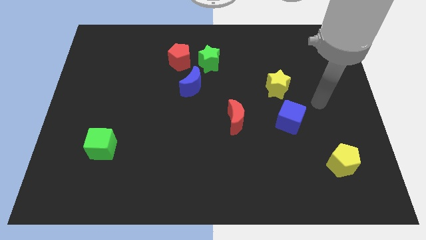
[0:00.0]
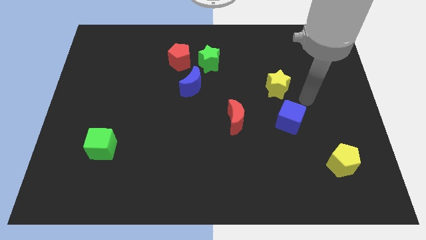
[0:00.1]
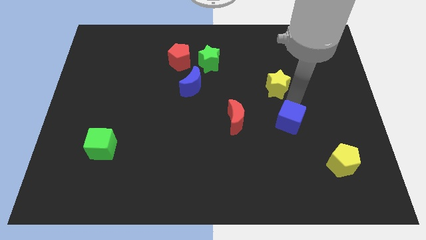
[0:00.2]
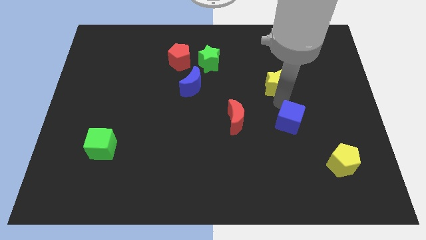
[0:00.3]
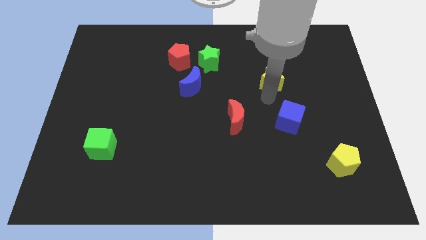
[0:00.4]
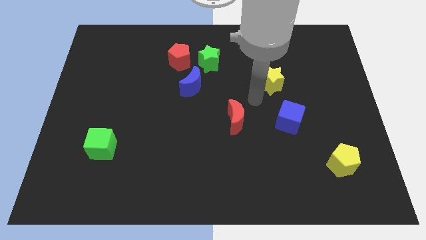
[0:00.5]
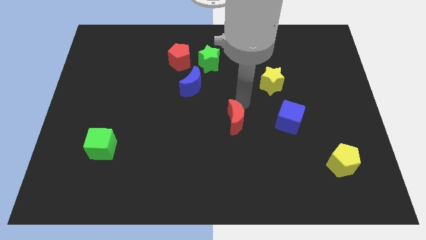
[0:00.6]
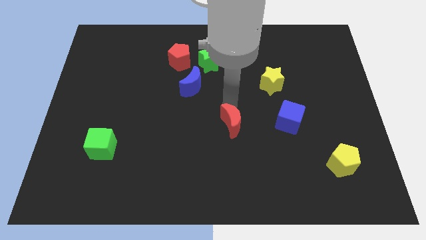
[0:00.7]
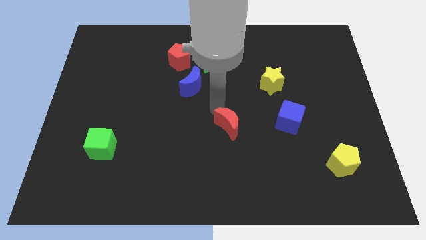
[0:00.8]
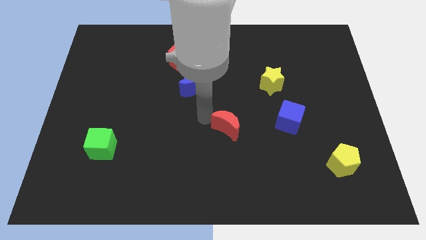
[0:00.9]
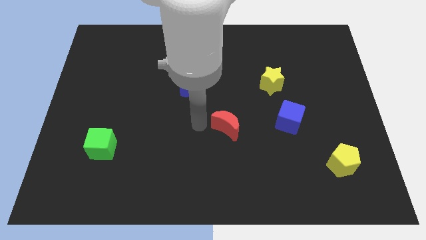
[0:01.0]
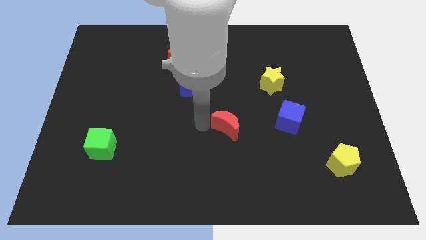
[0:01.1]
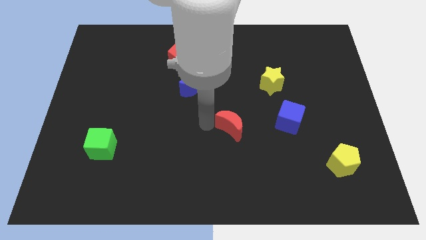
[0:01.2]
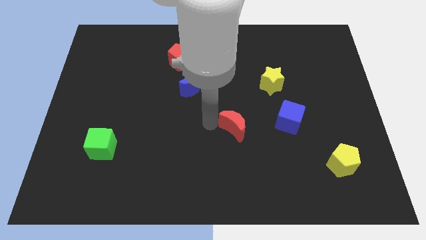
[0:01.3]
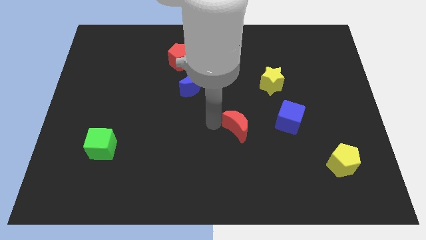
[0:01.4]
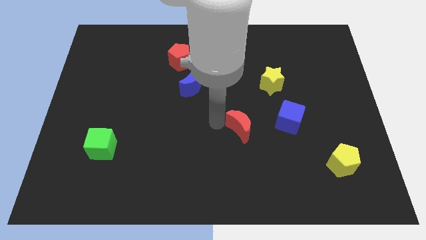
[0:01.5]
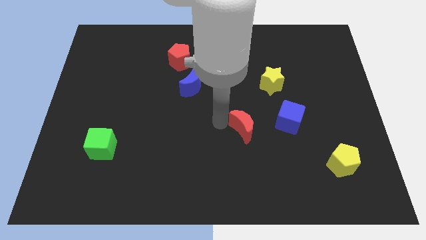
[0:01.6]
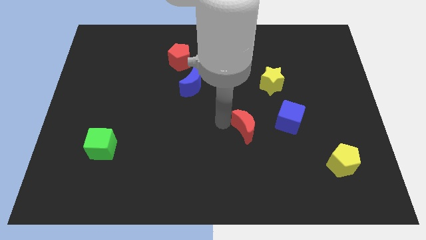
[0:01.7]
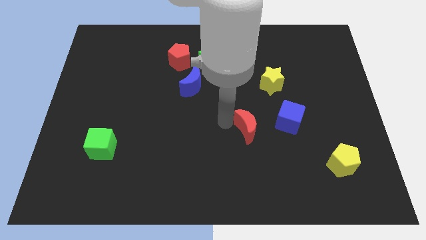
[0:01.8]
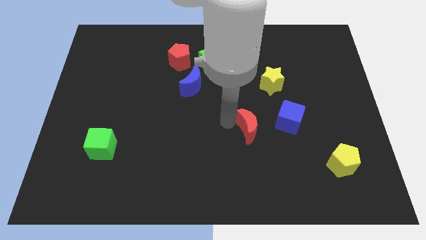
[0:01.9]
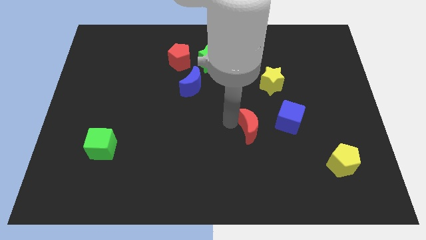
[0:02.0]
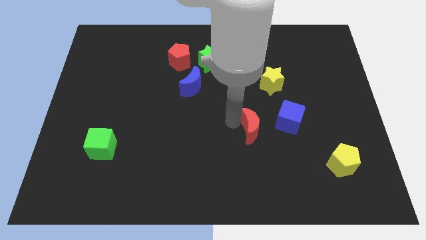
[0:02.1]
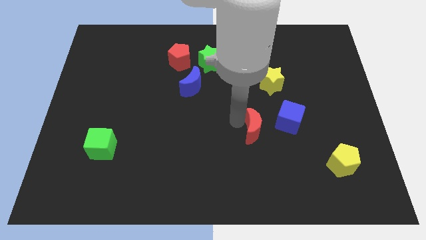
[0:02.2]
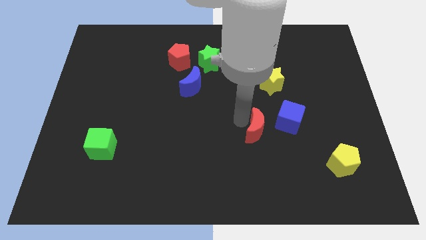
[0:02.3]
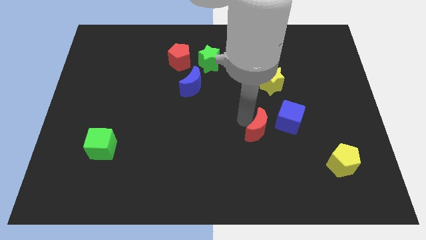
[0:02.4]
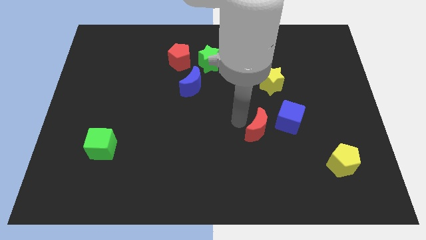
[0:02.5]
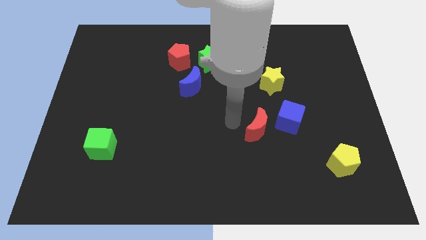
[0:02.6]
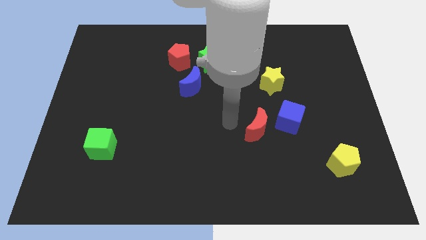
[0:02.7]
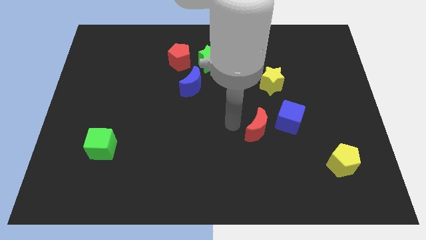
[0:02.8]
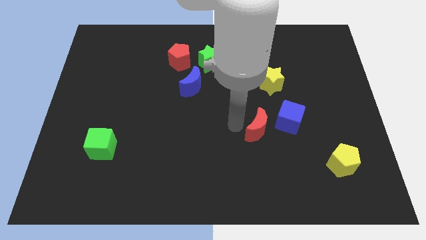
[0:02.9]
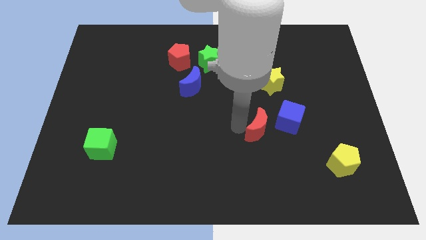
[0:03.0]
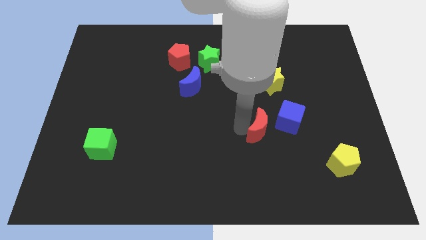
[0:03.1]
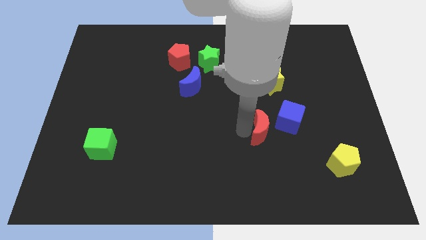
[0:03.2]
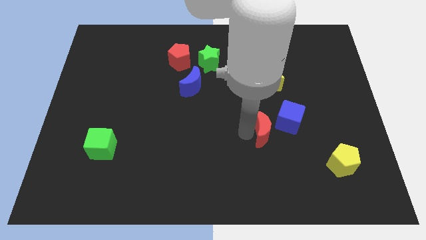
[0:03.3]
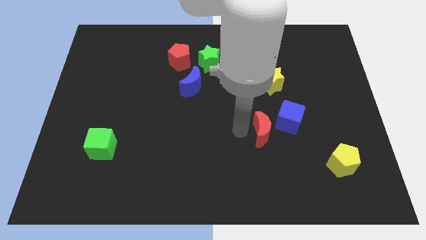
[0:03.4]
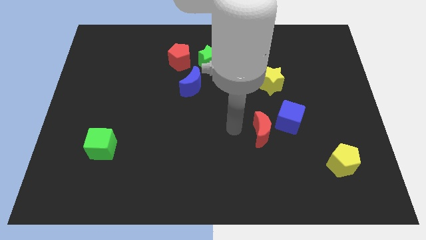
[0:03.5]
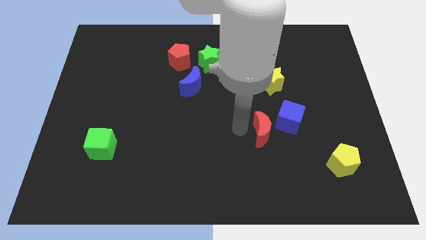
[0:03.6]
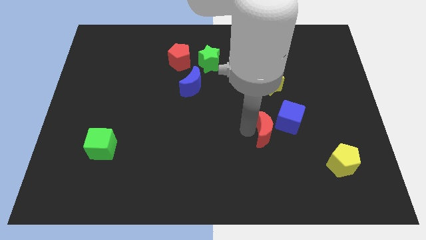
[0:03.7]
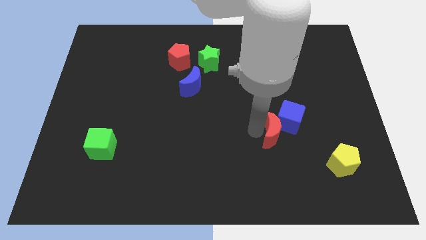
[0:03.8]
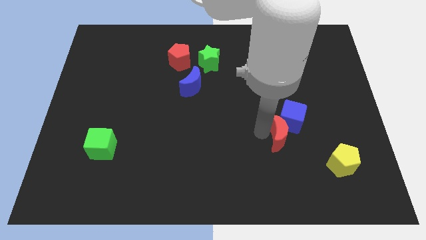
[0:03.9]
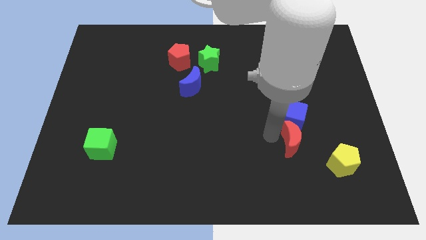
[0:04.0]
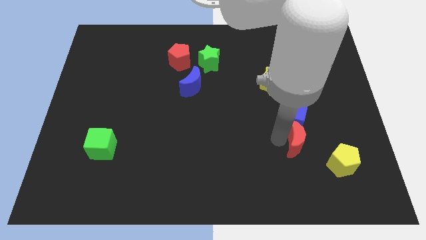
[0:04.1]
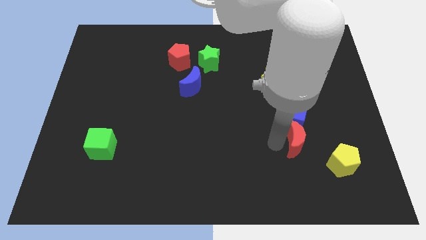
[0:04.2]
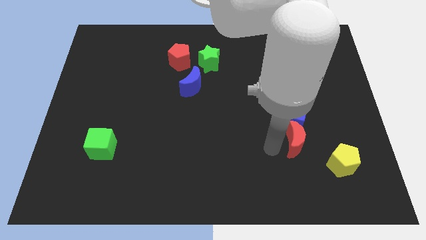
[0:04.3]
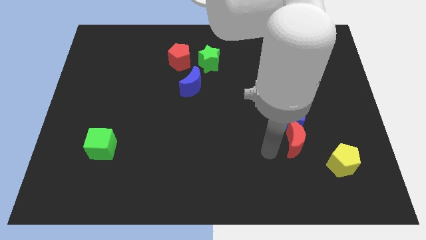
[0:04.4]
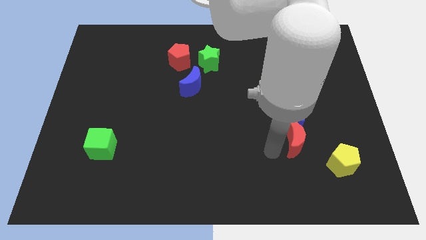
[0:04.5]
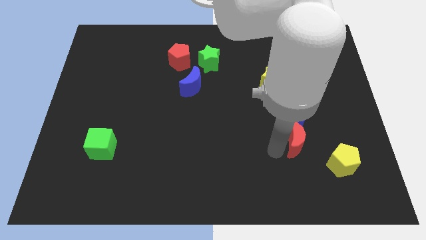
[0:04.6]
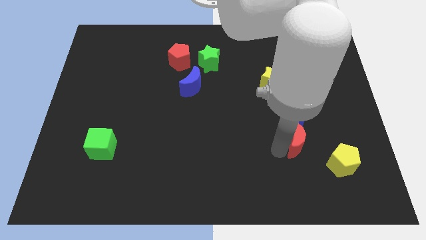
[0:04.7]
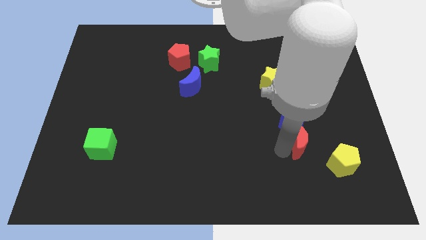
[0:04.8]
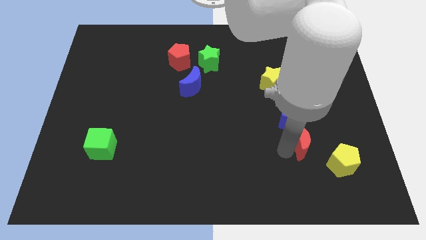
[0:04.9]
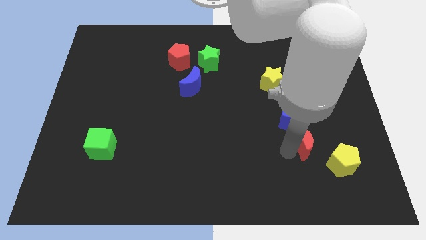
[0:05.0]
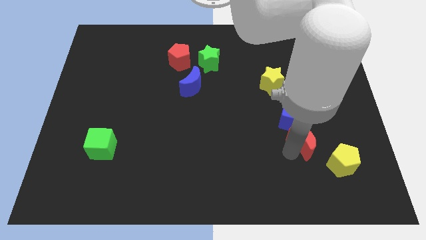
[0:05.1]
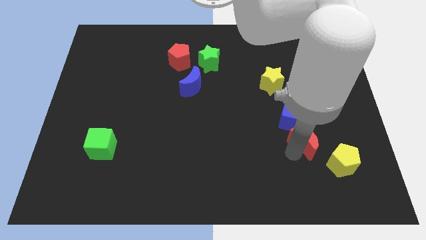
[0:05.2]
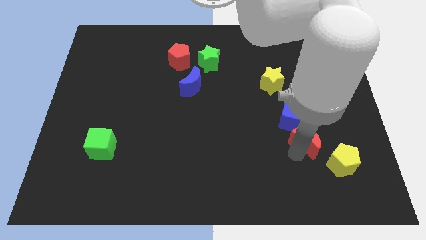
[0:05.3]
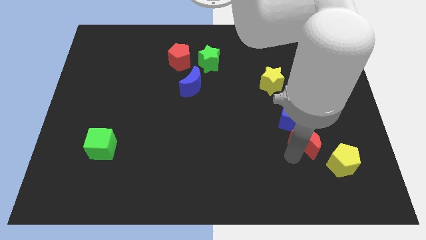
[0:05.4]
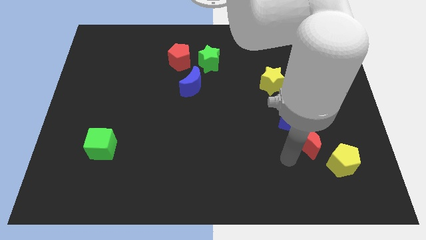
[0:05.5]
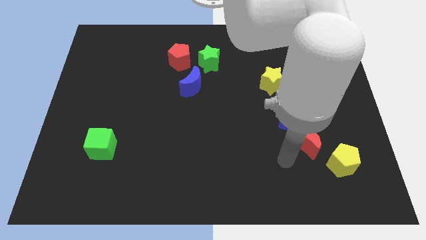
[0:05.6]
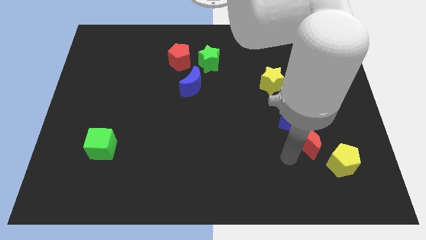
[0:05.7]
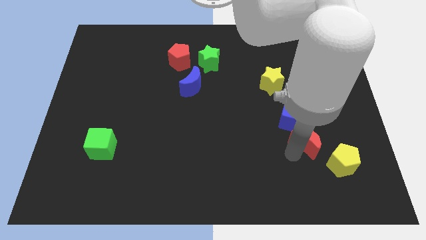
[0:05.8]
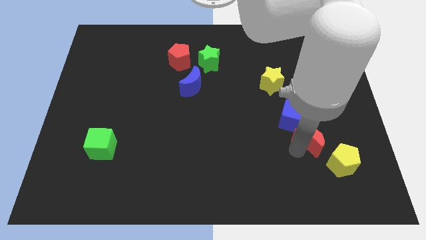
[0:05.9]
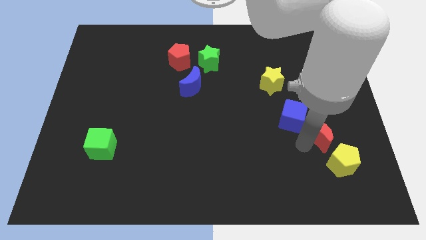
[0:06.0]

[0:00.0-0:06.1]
slide the red moon to the right side of the blue cube

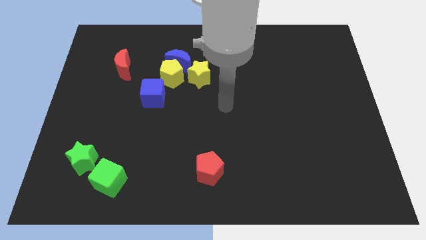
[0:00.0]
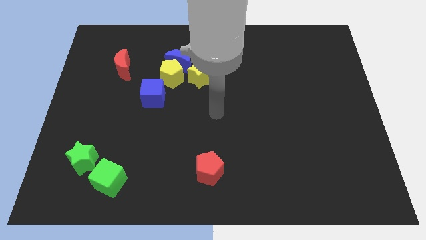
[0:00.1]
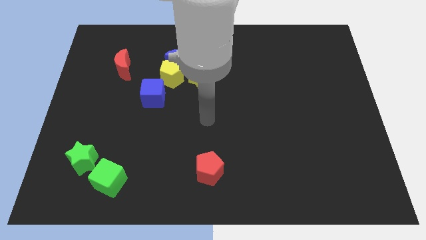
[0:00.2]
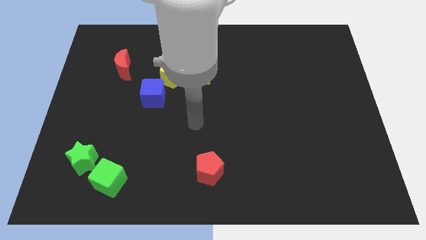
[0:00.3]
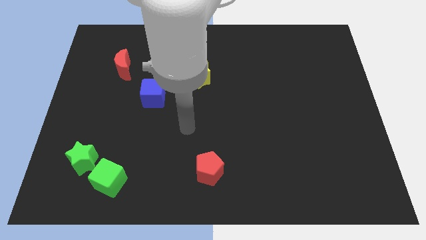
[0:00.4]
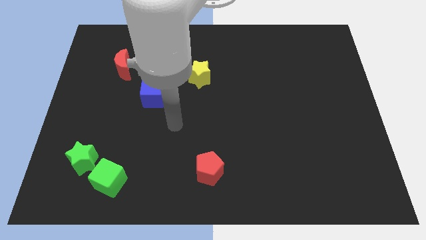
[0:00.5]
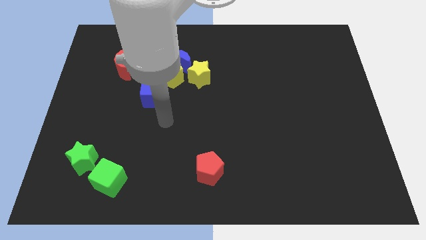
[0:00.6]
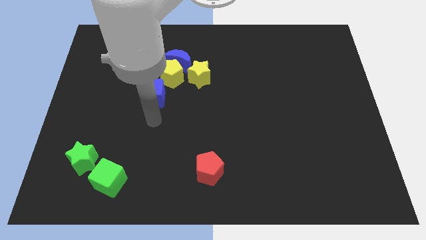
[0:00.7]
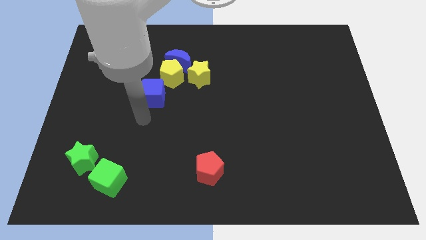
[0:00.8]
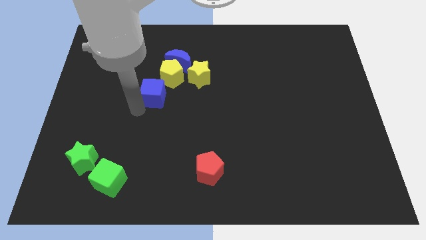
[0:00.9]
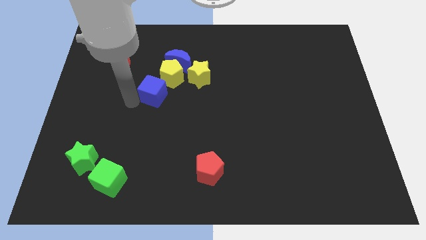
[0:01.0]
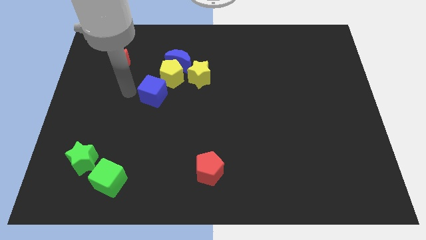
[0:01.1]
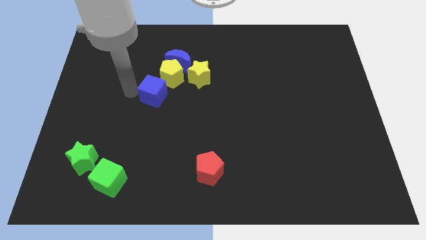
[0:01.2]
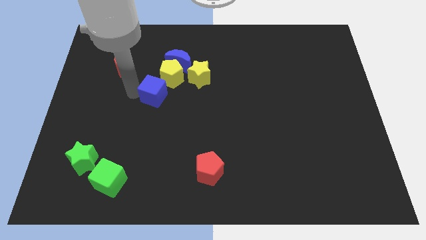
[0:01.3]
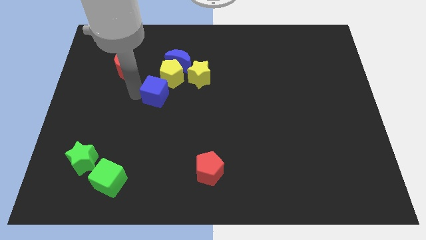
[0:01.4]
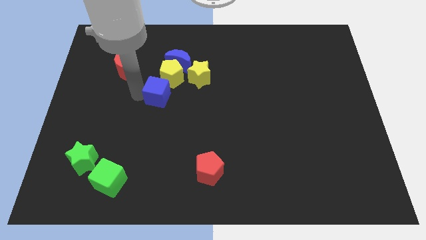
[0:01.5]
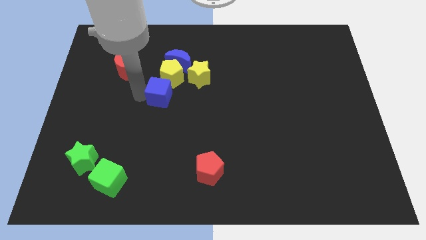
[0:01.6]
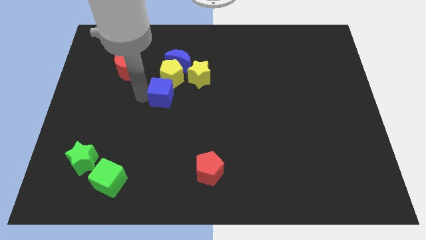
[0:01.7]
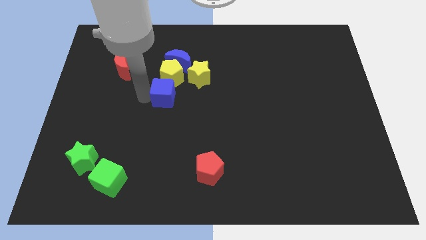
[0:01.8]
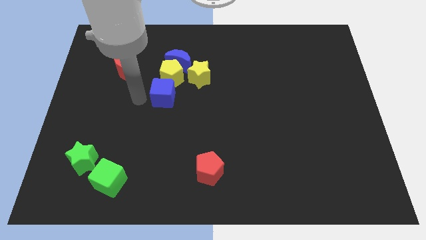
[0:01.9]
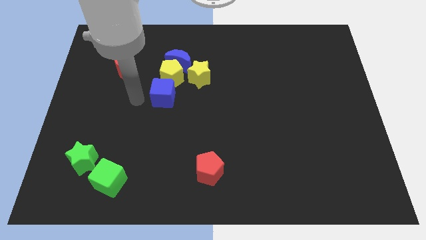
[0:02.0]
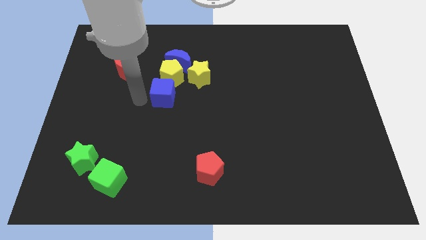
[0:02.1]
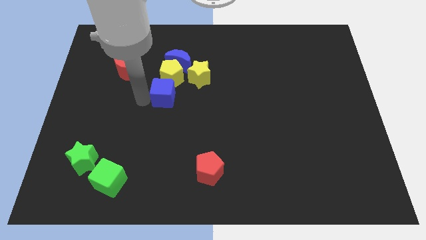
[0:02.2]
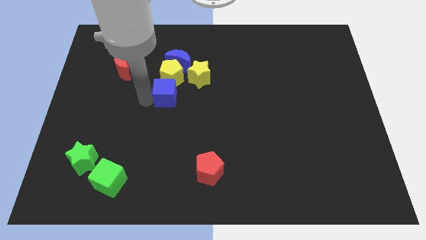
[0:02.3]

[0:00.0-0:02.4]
move the blue cube diagonally down and to the right of the yellow pentagon

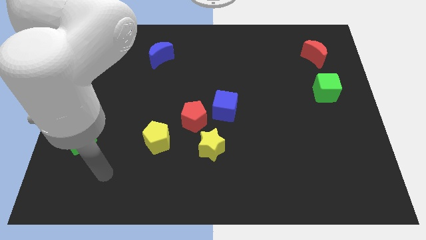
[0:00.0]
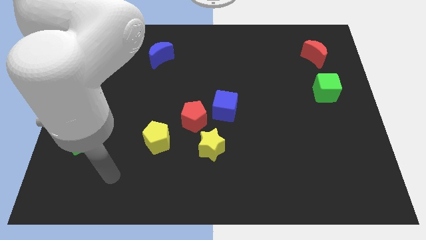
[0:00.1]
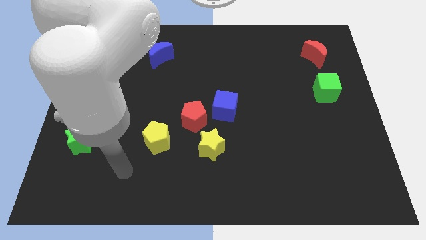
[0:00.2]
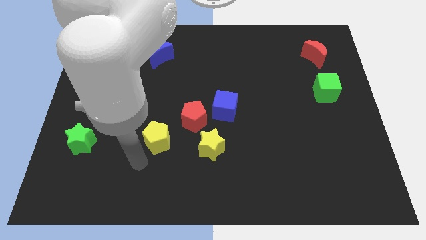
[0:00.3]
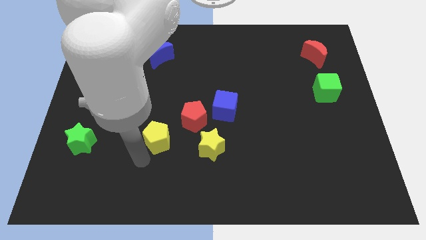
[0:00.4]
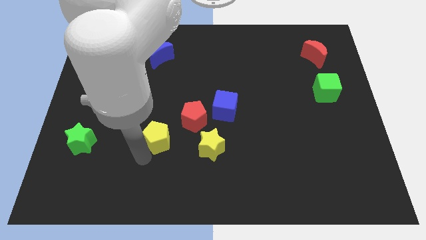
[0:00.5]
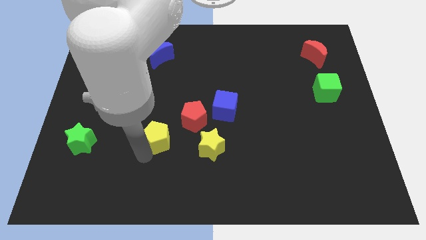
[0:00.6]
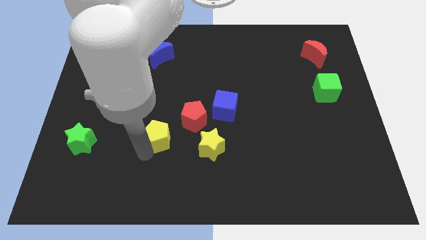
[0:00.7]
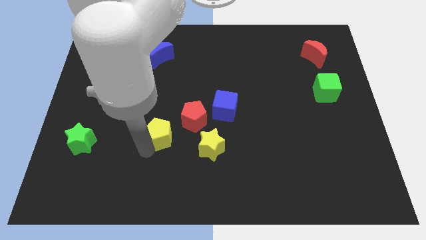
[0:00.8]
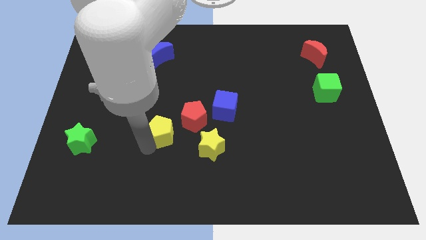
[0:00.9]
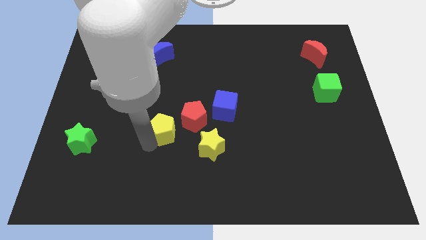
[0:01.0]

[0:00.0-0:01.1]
push the yellow pentagon to the top left of the yellow star
